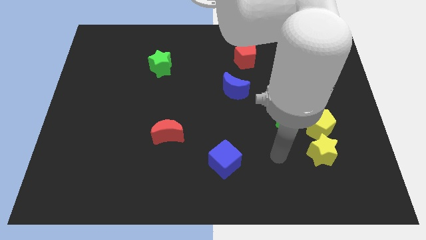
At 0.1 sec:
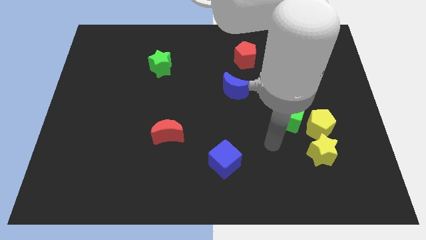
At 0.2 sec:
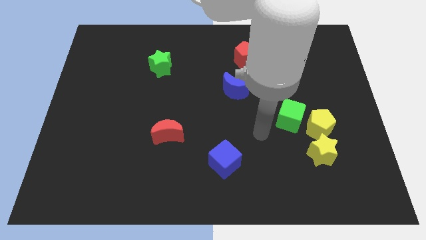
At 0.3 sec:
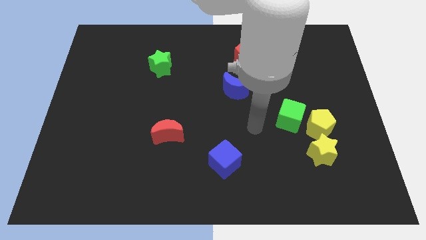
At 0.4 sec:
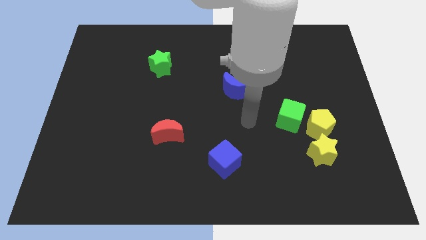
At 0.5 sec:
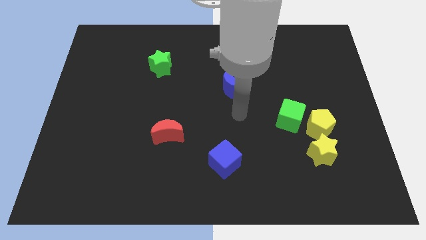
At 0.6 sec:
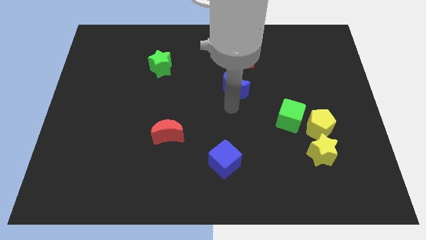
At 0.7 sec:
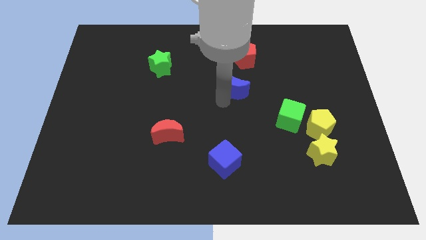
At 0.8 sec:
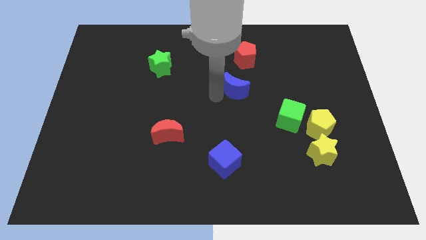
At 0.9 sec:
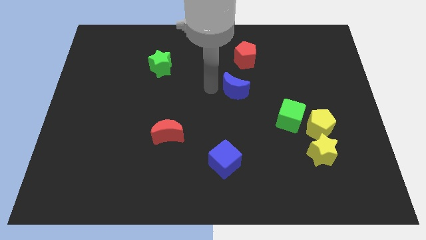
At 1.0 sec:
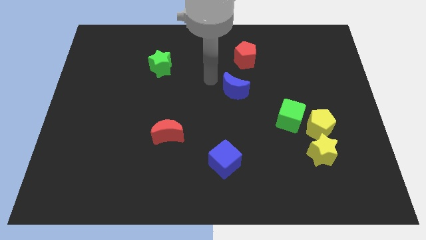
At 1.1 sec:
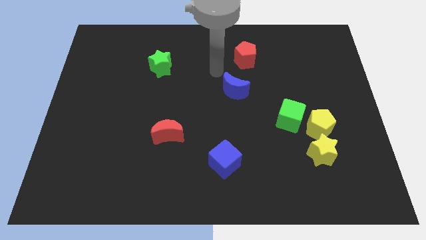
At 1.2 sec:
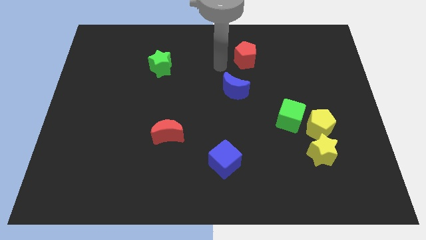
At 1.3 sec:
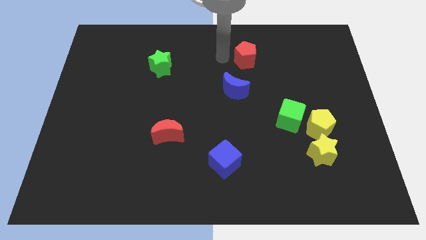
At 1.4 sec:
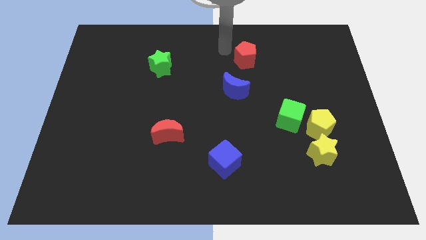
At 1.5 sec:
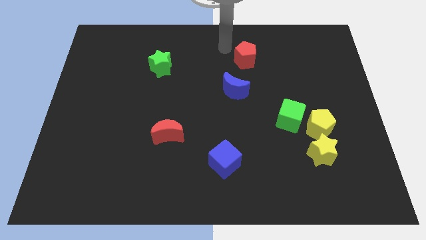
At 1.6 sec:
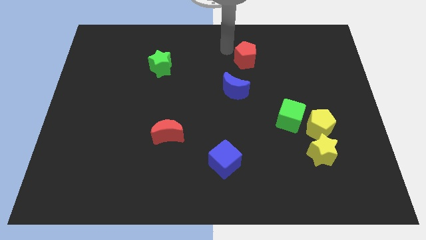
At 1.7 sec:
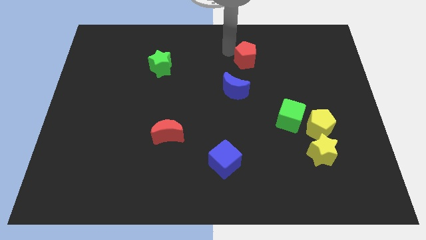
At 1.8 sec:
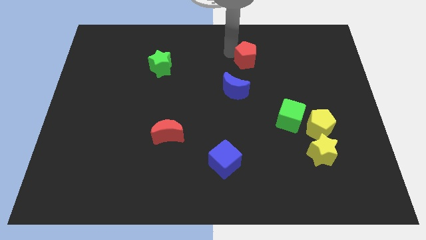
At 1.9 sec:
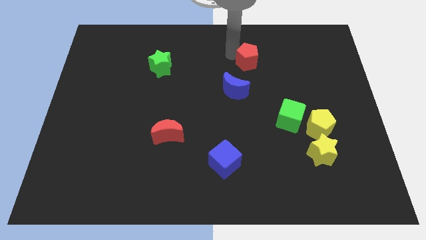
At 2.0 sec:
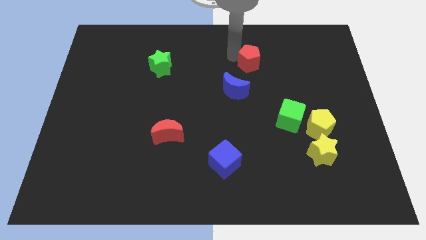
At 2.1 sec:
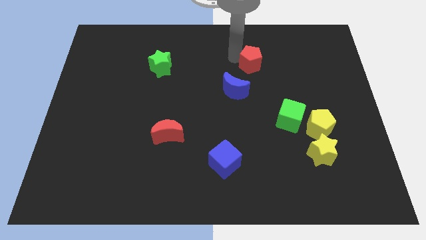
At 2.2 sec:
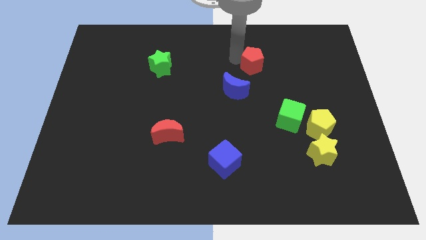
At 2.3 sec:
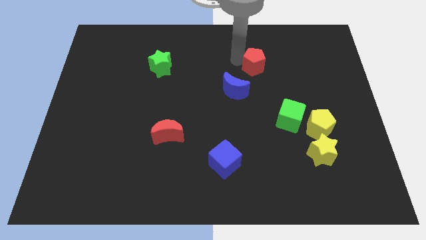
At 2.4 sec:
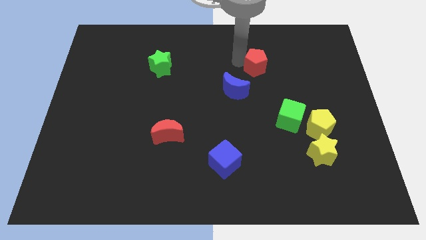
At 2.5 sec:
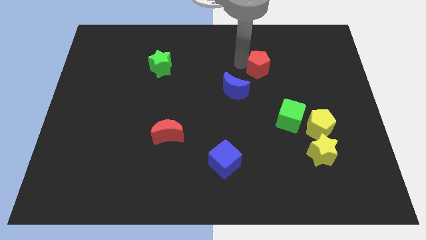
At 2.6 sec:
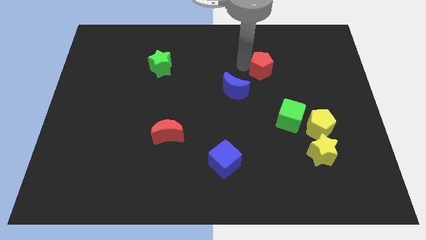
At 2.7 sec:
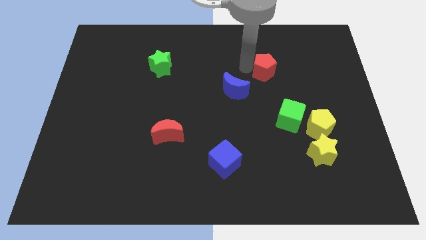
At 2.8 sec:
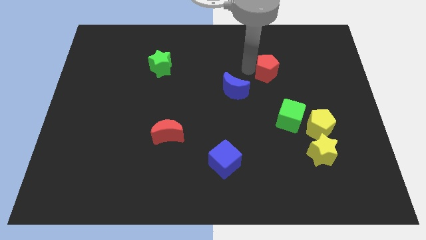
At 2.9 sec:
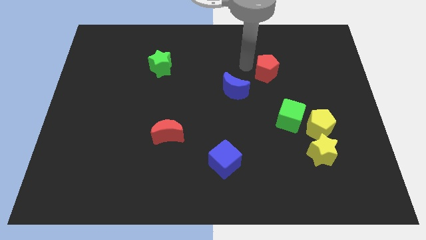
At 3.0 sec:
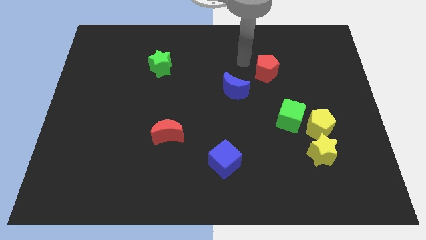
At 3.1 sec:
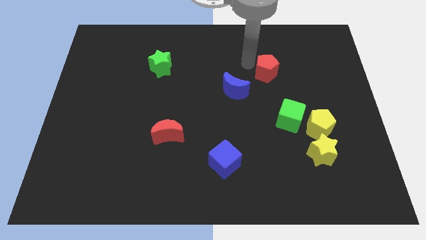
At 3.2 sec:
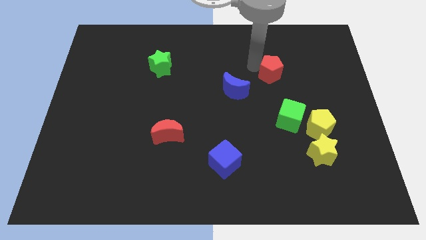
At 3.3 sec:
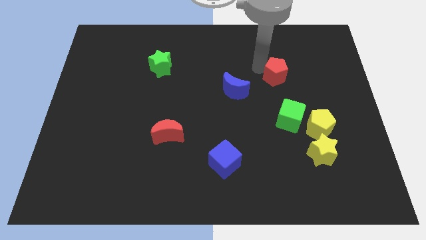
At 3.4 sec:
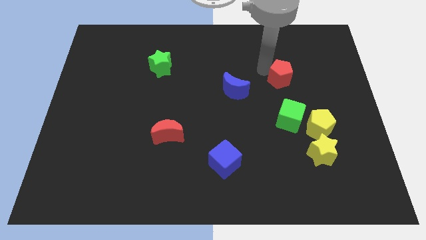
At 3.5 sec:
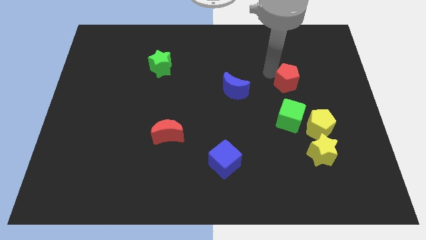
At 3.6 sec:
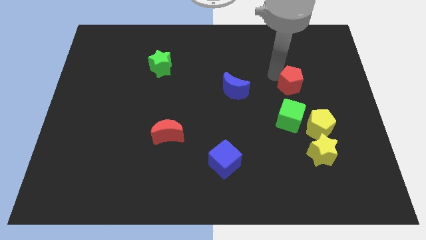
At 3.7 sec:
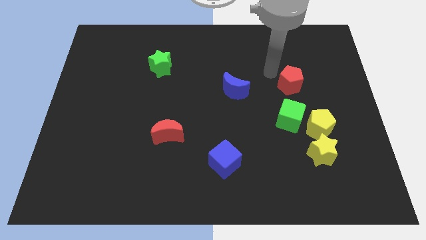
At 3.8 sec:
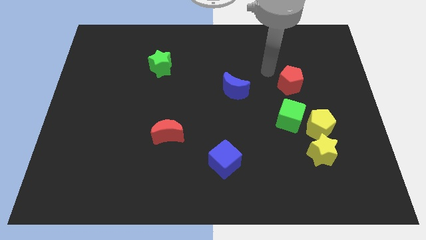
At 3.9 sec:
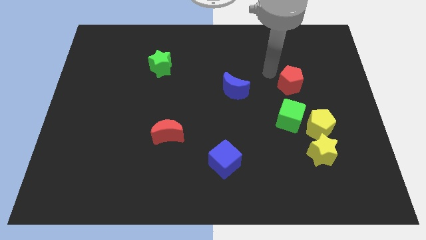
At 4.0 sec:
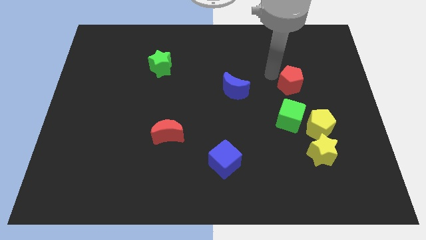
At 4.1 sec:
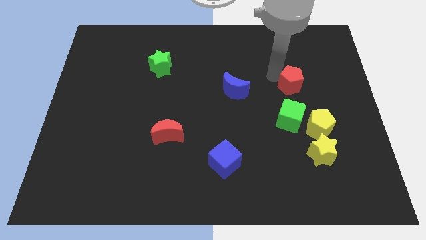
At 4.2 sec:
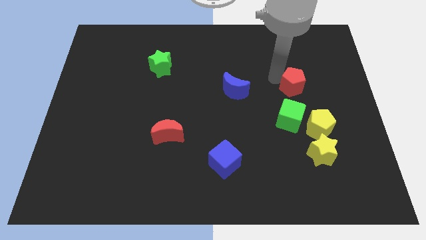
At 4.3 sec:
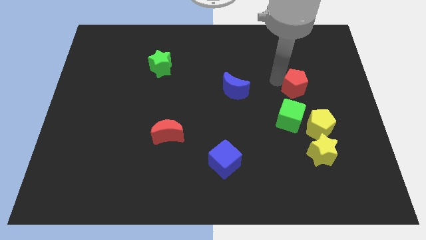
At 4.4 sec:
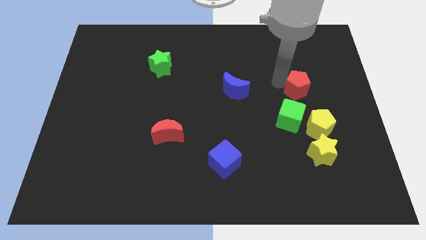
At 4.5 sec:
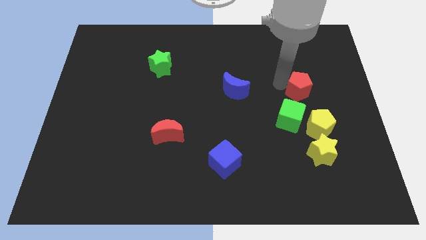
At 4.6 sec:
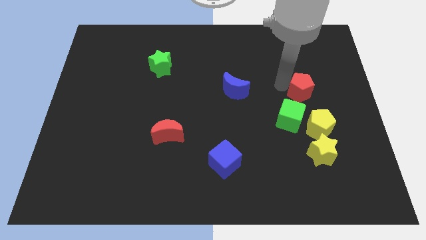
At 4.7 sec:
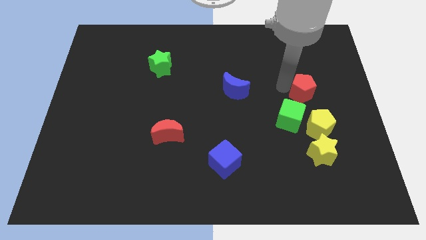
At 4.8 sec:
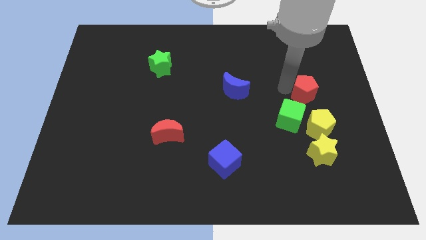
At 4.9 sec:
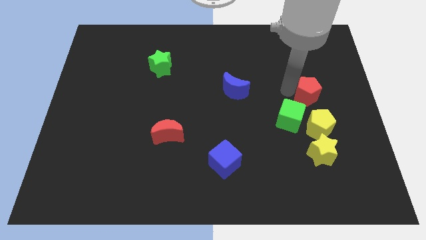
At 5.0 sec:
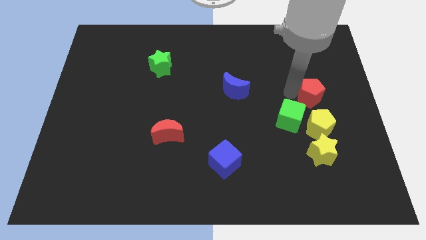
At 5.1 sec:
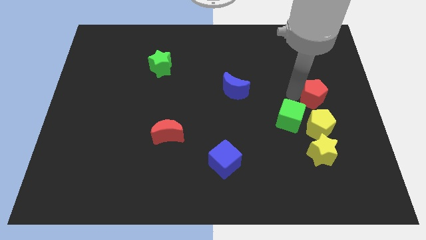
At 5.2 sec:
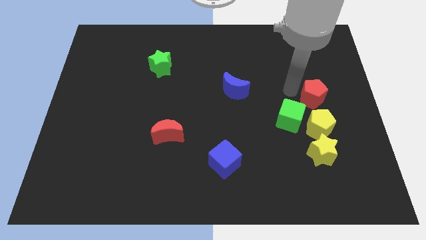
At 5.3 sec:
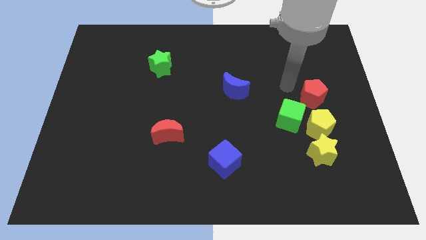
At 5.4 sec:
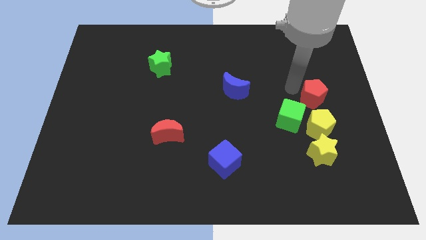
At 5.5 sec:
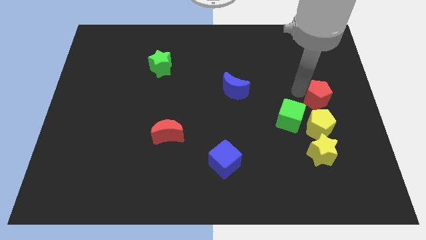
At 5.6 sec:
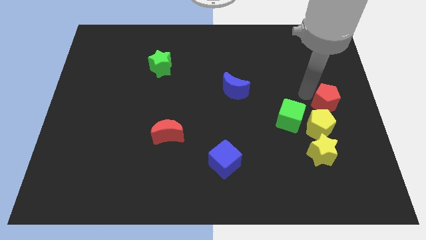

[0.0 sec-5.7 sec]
put the red pentagon diagonally up and to the right of the yellow pentagon

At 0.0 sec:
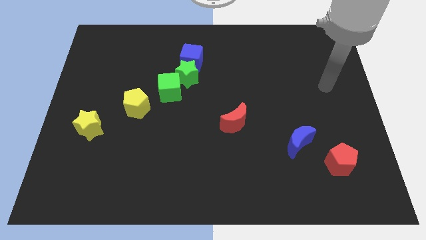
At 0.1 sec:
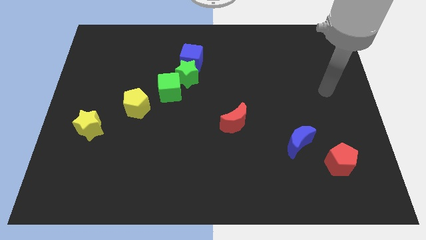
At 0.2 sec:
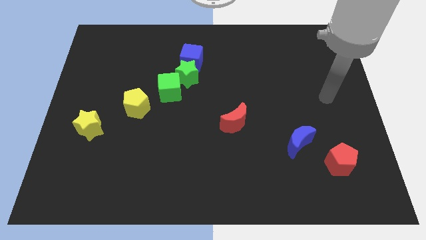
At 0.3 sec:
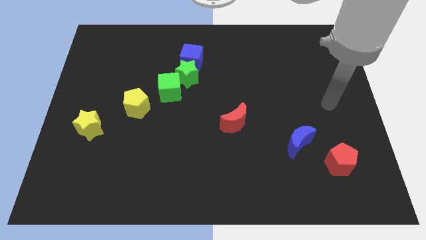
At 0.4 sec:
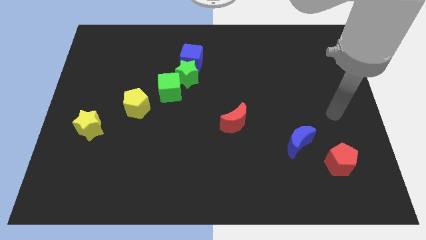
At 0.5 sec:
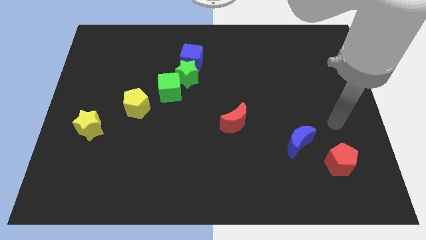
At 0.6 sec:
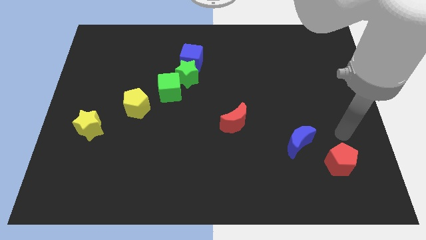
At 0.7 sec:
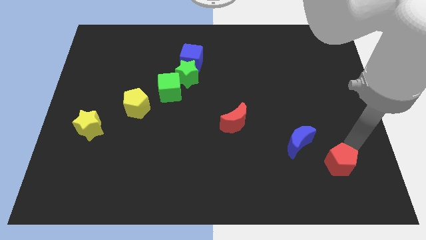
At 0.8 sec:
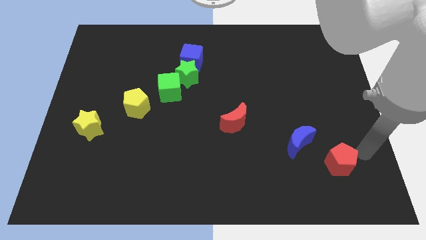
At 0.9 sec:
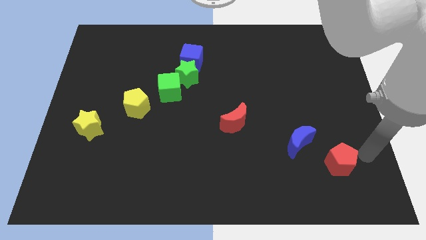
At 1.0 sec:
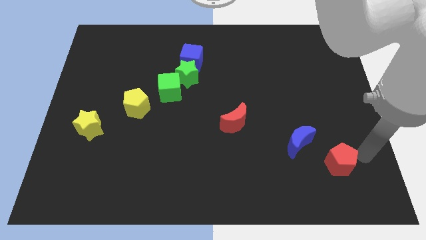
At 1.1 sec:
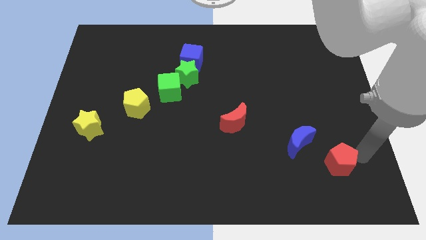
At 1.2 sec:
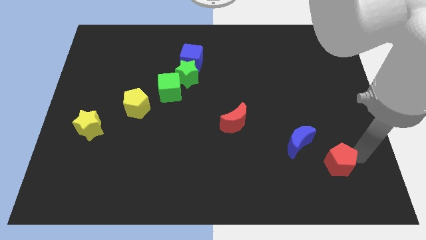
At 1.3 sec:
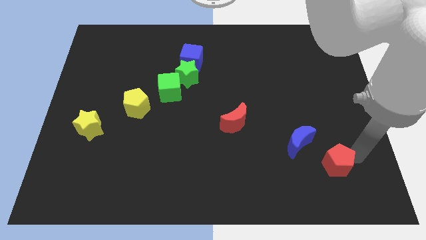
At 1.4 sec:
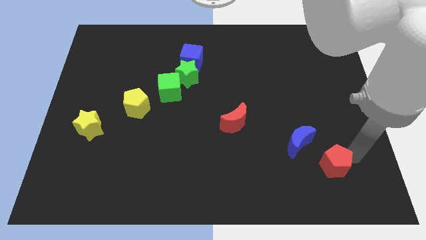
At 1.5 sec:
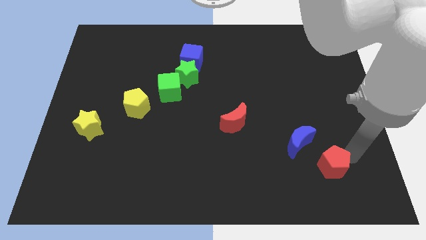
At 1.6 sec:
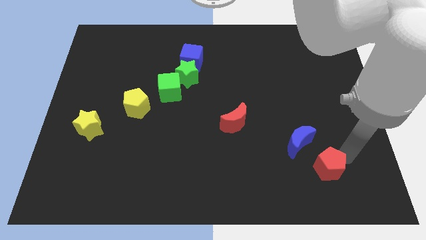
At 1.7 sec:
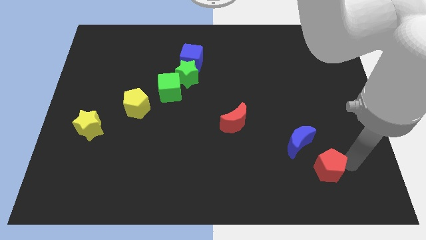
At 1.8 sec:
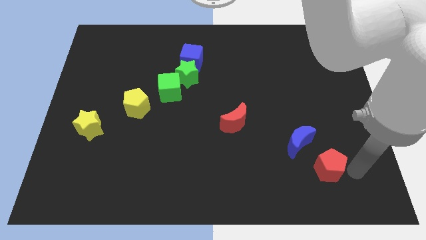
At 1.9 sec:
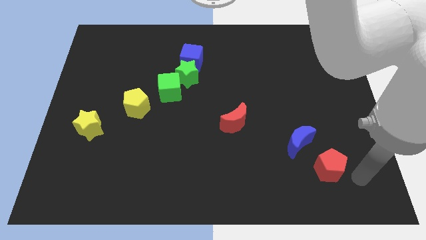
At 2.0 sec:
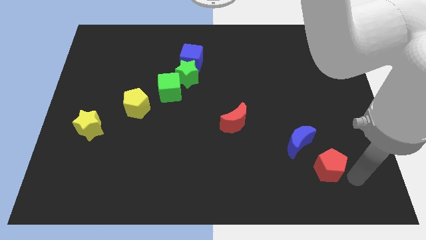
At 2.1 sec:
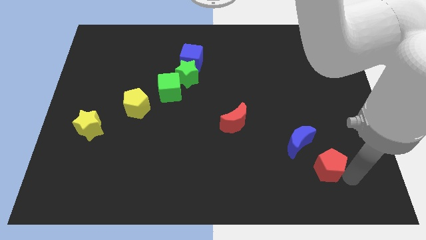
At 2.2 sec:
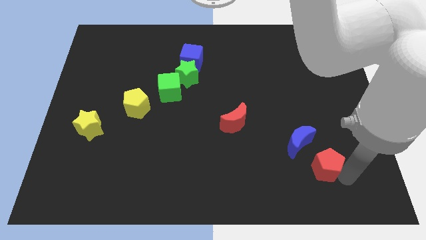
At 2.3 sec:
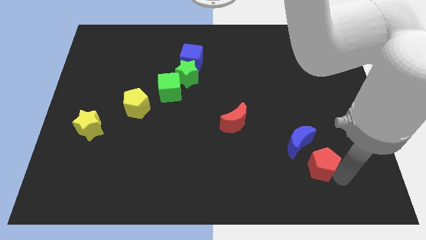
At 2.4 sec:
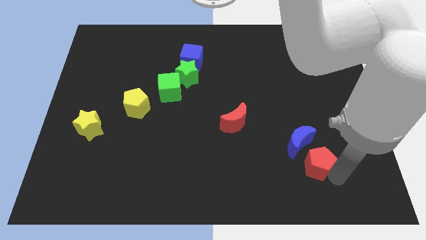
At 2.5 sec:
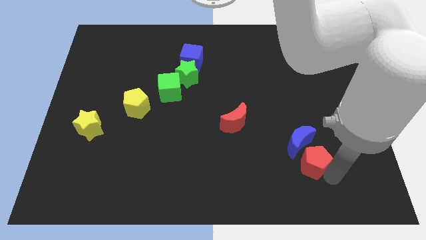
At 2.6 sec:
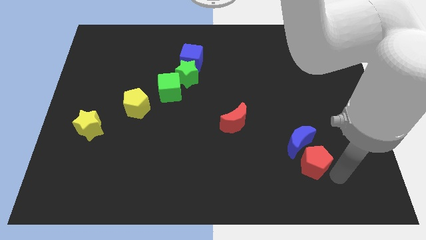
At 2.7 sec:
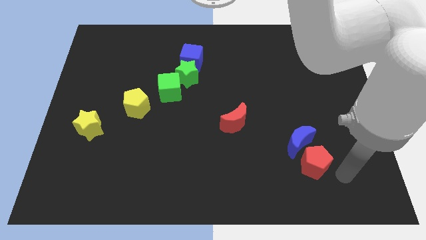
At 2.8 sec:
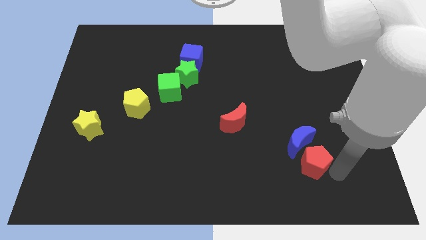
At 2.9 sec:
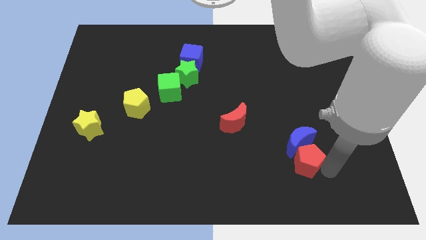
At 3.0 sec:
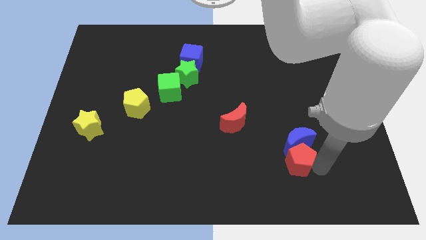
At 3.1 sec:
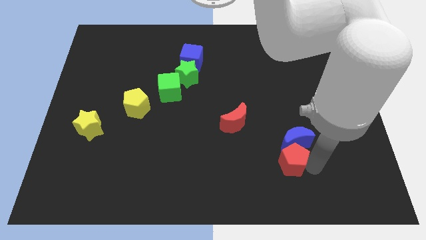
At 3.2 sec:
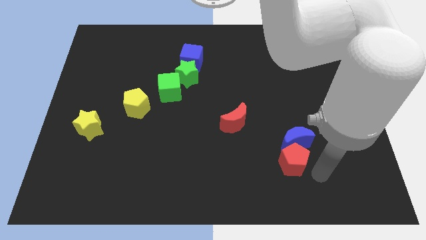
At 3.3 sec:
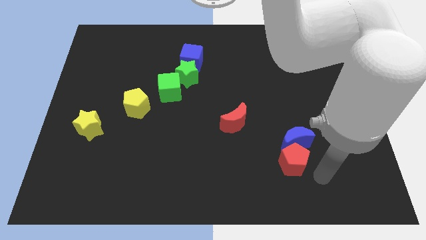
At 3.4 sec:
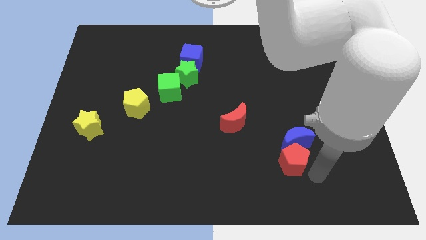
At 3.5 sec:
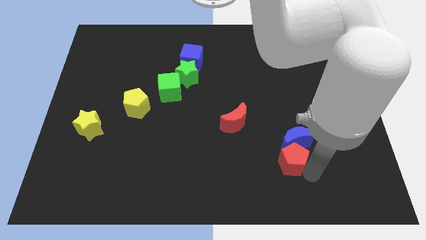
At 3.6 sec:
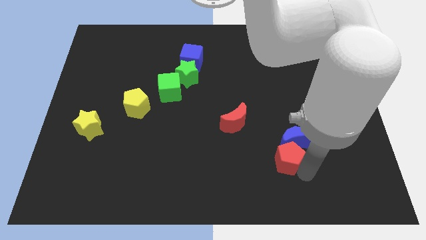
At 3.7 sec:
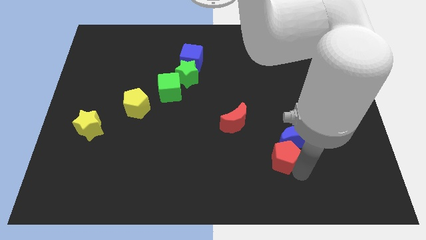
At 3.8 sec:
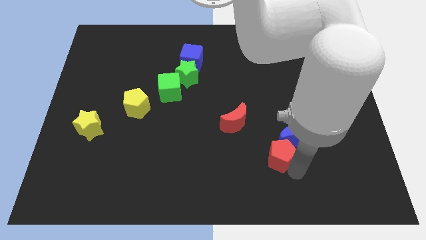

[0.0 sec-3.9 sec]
slide the red pentagon left of the blue moon
